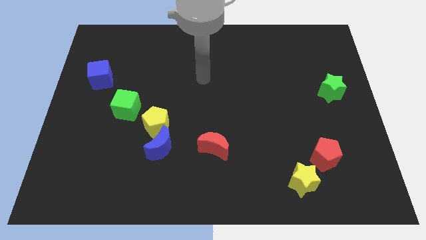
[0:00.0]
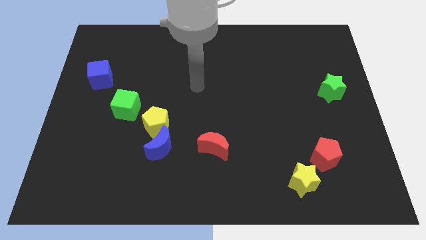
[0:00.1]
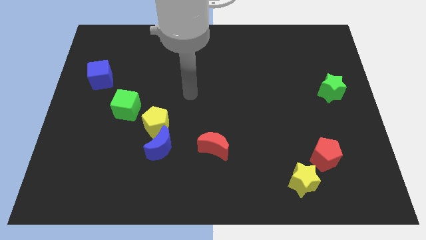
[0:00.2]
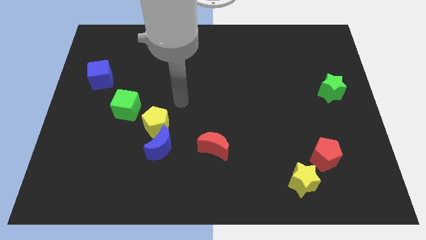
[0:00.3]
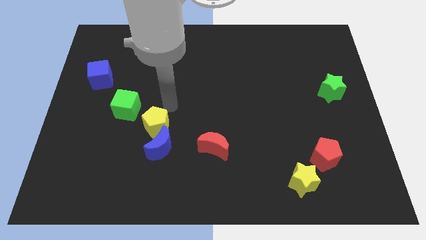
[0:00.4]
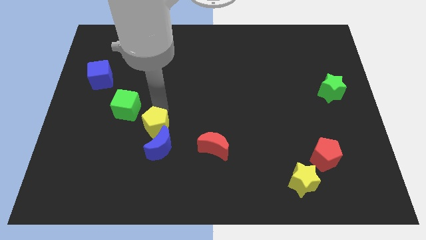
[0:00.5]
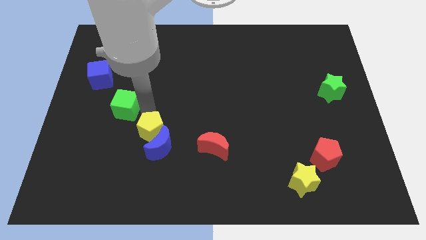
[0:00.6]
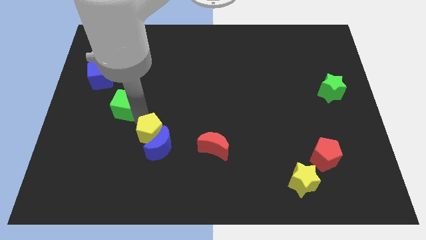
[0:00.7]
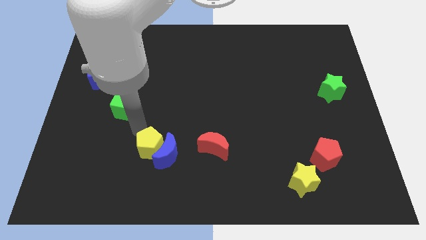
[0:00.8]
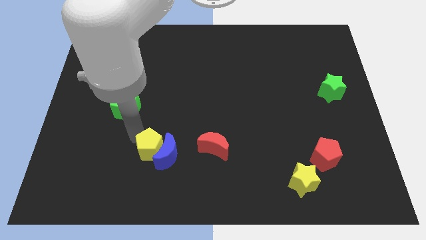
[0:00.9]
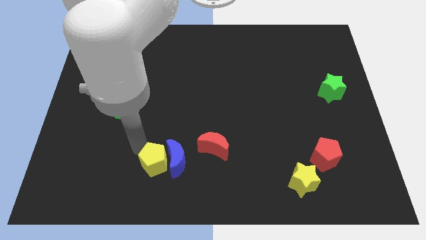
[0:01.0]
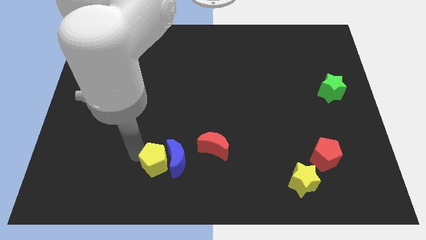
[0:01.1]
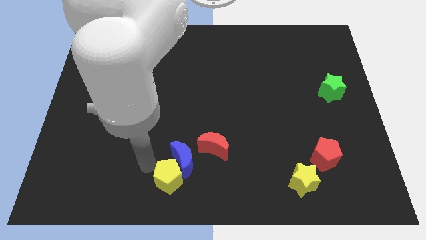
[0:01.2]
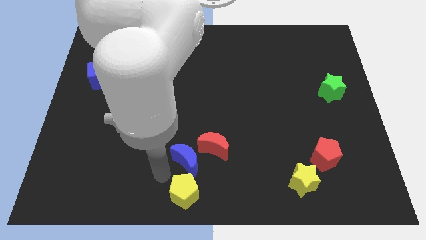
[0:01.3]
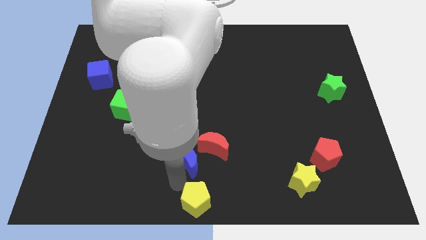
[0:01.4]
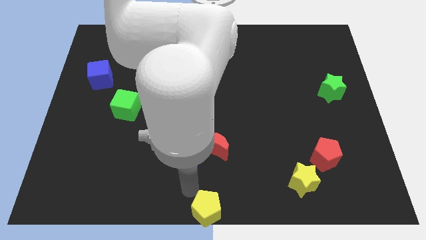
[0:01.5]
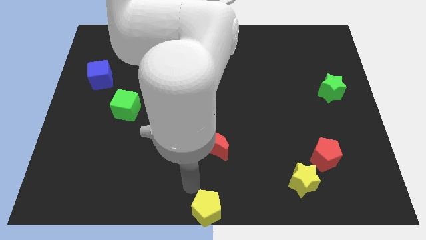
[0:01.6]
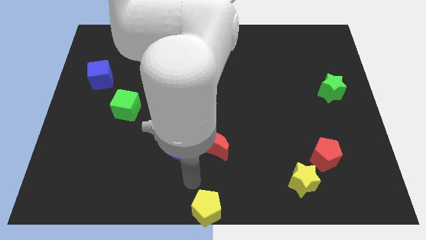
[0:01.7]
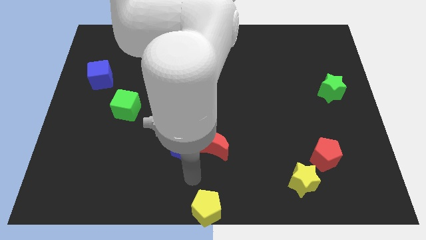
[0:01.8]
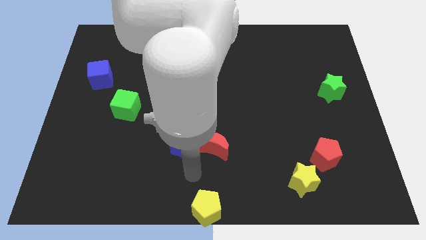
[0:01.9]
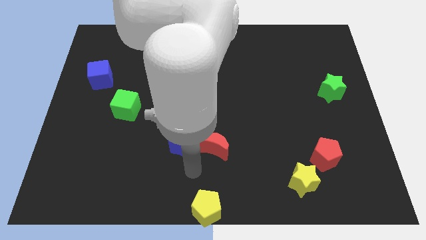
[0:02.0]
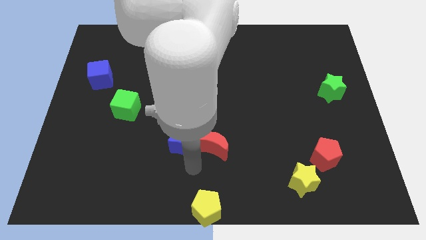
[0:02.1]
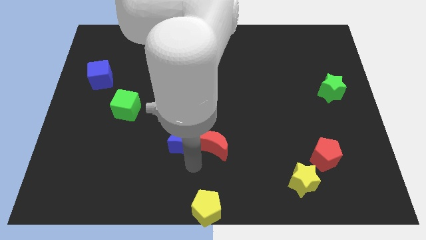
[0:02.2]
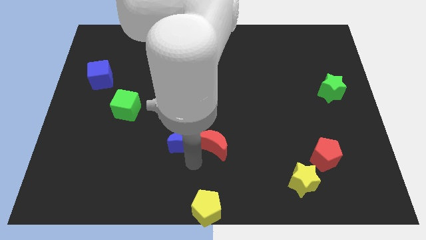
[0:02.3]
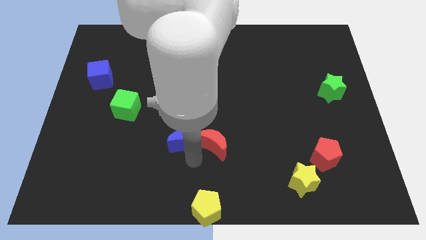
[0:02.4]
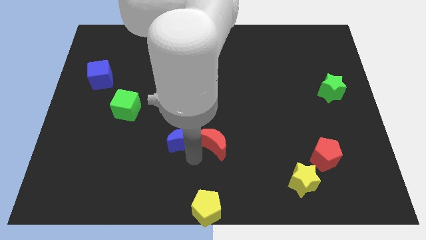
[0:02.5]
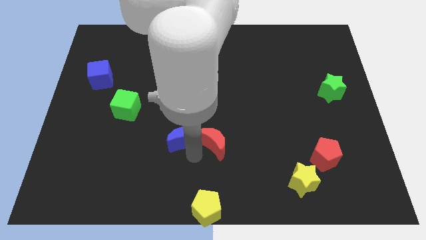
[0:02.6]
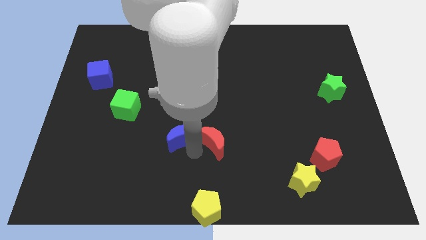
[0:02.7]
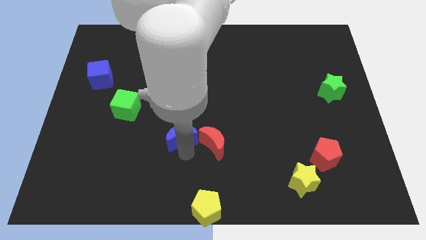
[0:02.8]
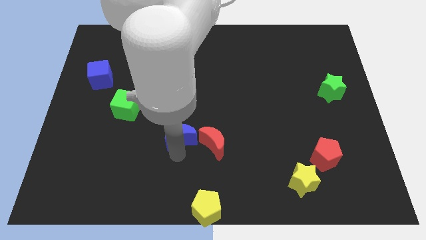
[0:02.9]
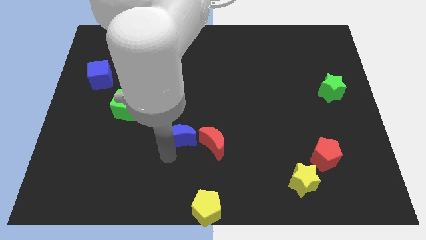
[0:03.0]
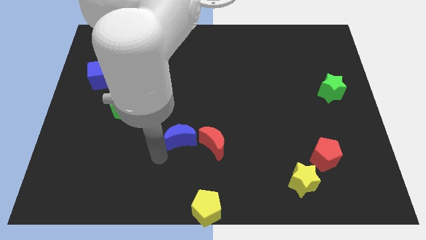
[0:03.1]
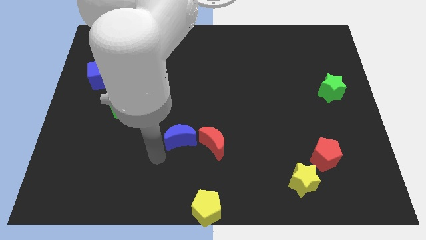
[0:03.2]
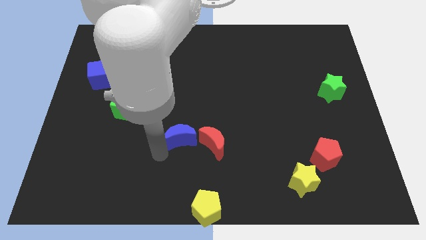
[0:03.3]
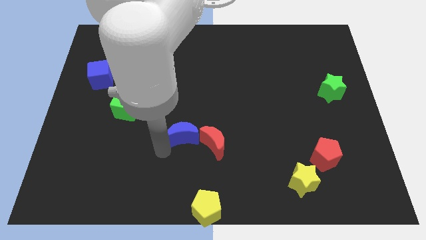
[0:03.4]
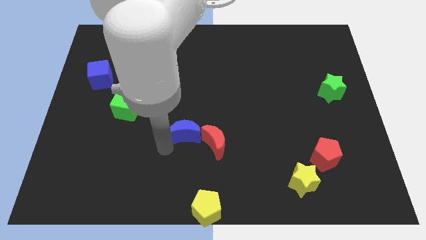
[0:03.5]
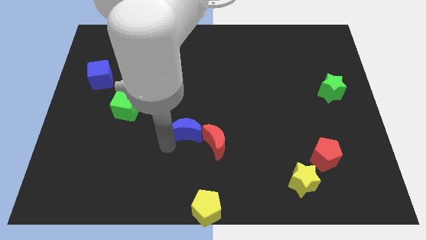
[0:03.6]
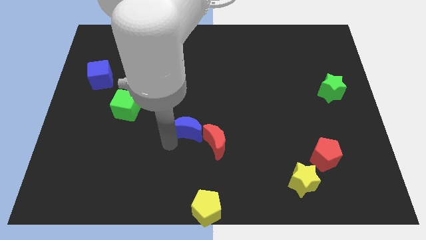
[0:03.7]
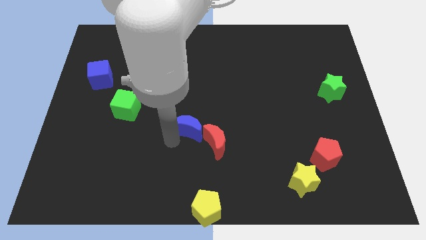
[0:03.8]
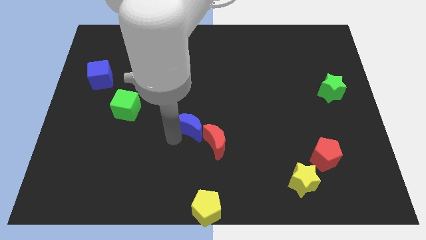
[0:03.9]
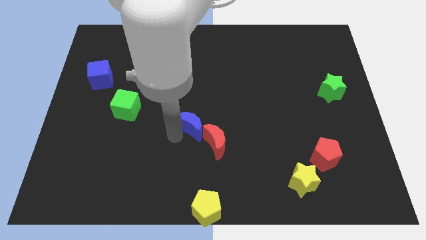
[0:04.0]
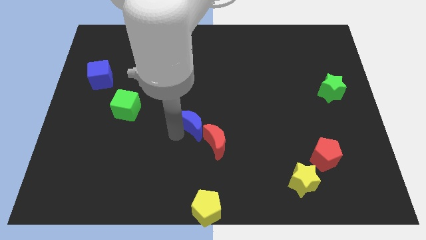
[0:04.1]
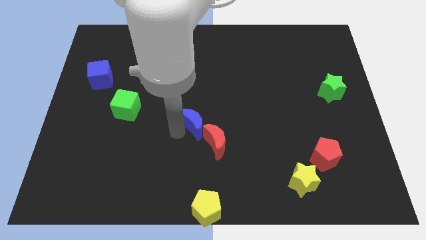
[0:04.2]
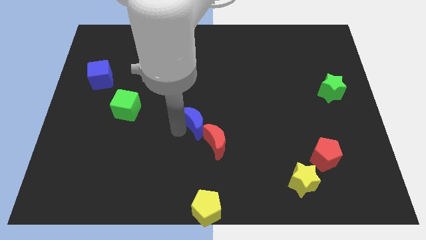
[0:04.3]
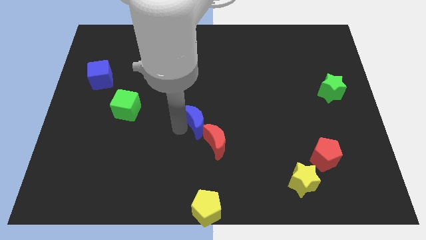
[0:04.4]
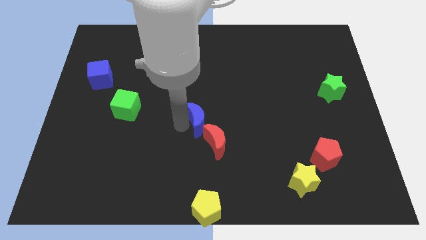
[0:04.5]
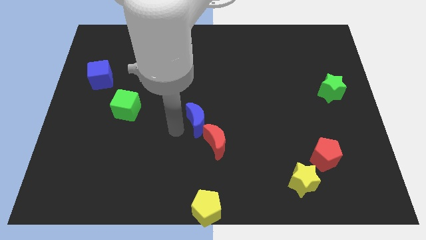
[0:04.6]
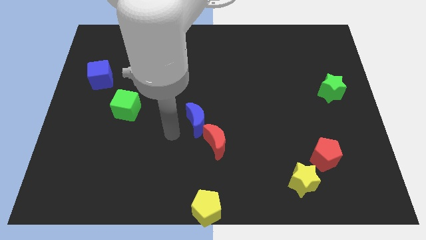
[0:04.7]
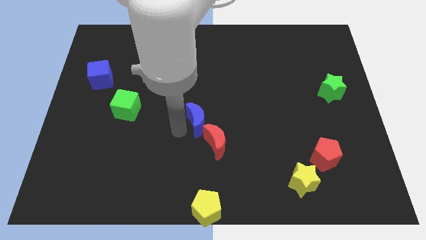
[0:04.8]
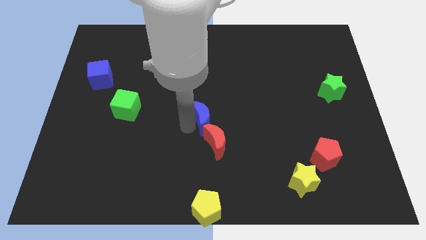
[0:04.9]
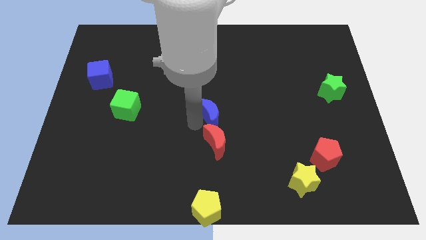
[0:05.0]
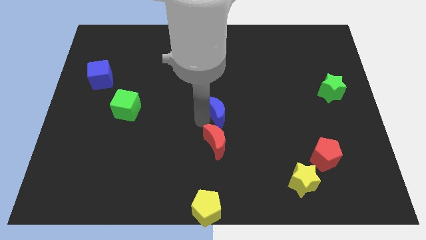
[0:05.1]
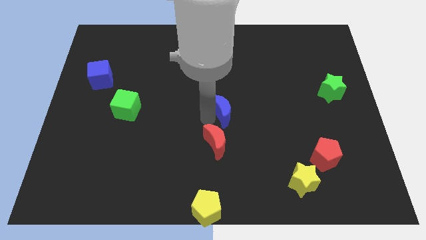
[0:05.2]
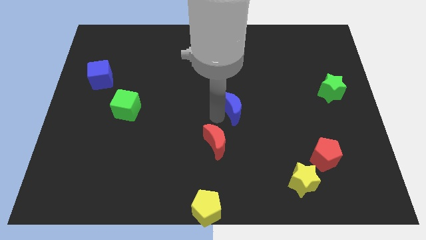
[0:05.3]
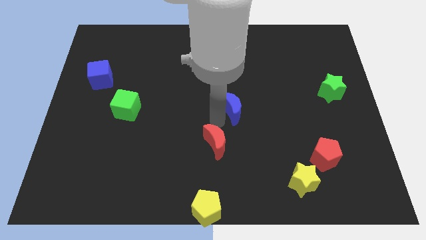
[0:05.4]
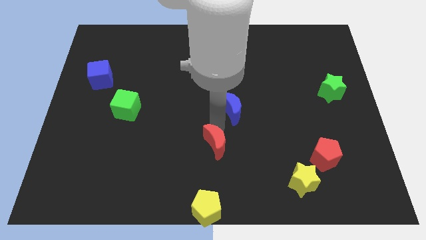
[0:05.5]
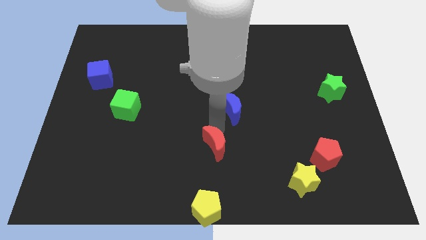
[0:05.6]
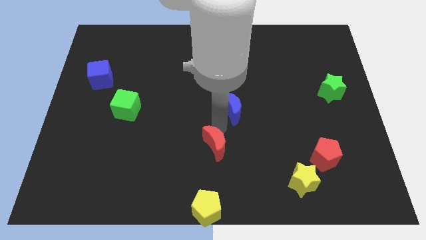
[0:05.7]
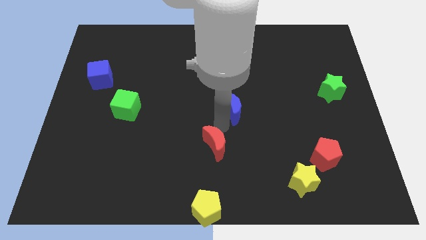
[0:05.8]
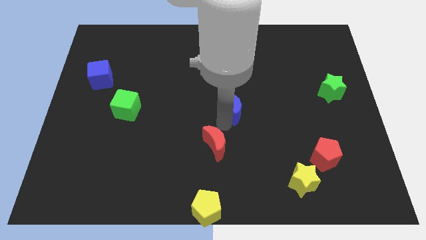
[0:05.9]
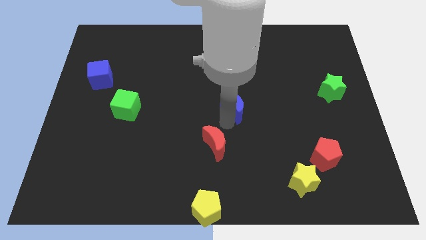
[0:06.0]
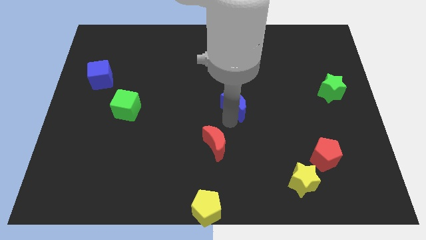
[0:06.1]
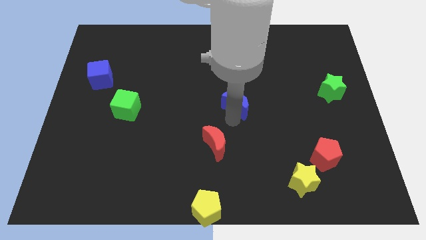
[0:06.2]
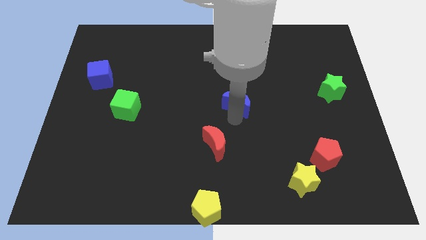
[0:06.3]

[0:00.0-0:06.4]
push the blue moon upwards and to the right diagonally

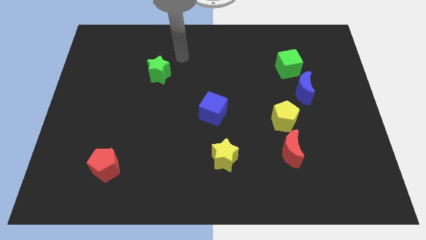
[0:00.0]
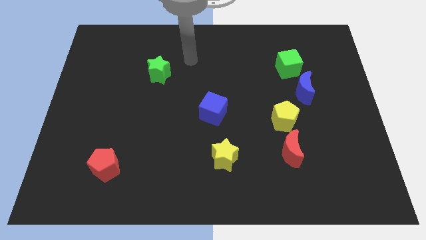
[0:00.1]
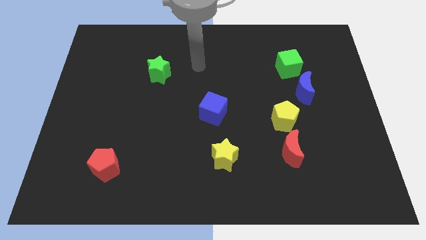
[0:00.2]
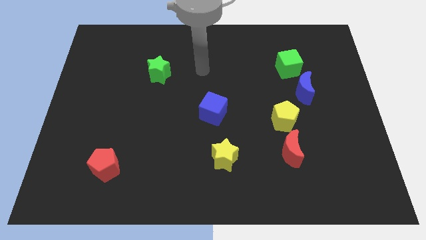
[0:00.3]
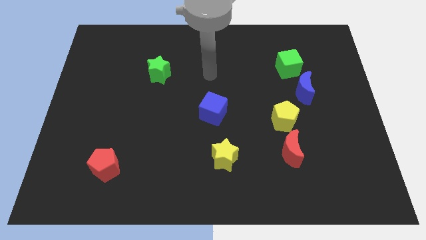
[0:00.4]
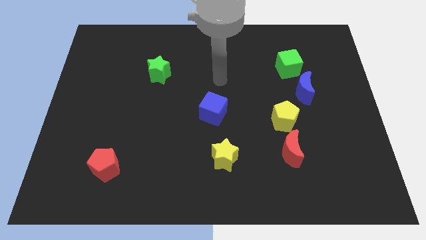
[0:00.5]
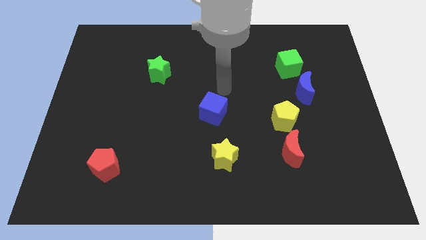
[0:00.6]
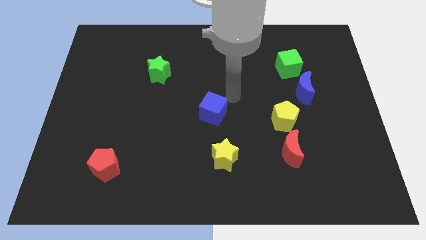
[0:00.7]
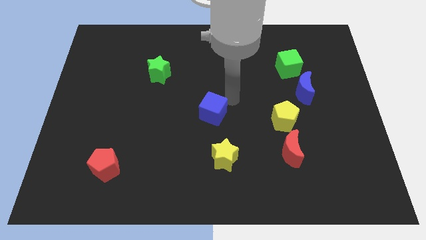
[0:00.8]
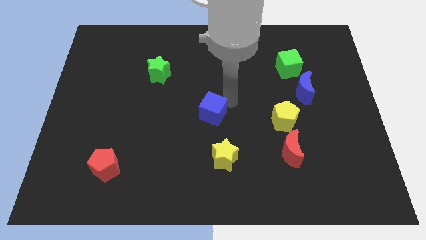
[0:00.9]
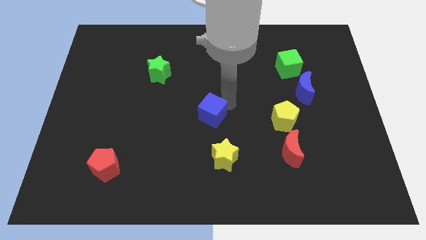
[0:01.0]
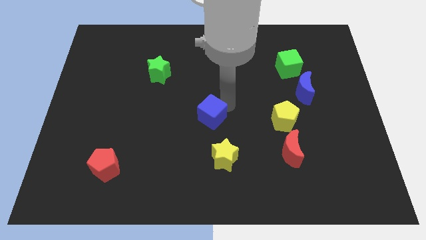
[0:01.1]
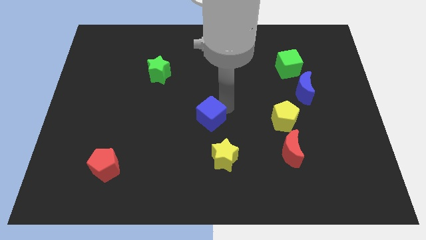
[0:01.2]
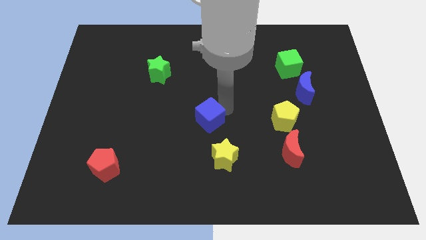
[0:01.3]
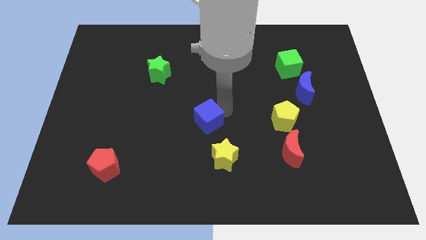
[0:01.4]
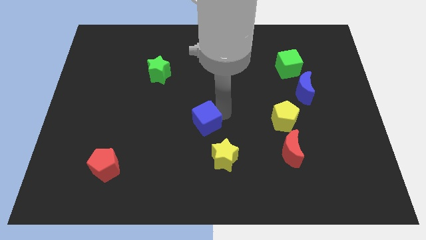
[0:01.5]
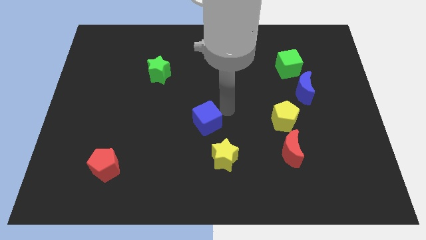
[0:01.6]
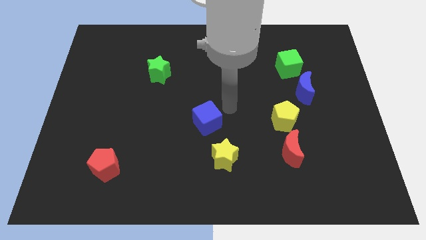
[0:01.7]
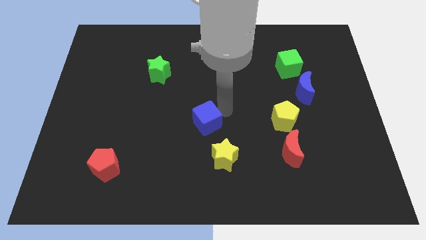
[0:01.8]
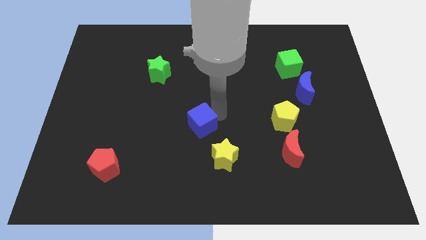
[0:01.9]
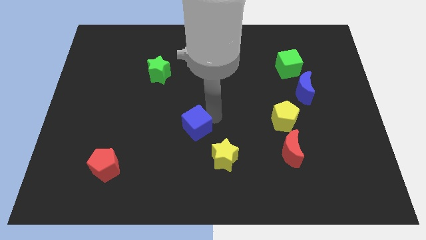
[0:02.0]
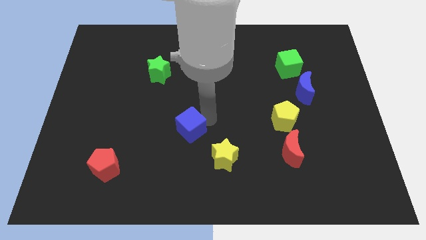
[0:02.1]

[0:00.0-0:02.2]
slightly slide the blue cube down and left
